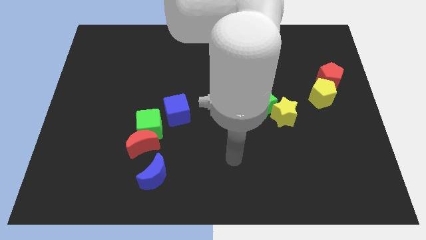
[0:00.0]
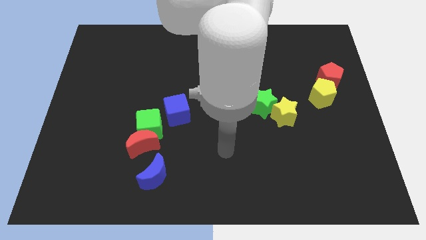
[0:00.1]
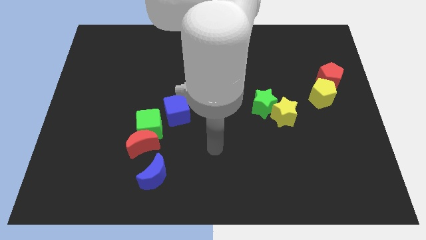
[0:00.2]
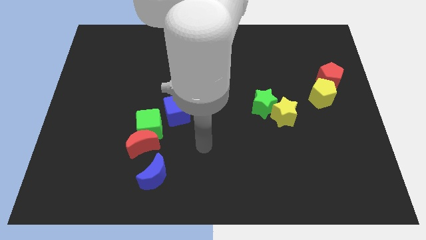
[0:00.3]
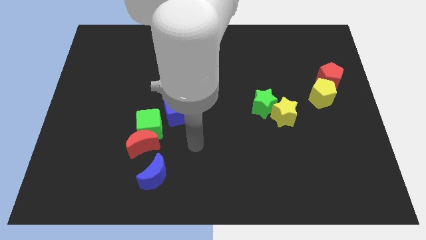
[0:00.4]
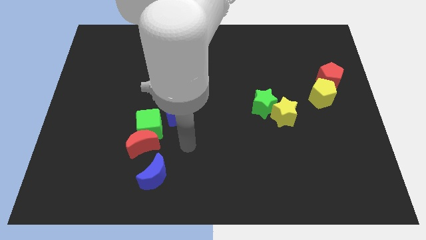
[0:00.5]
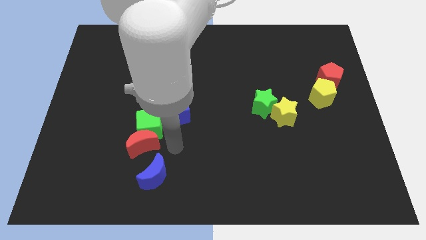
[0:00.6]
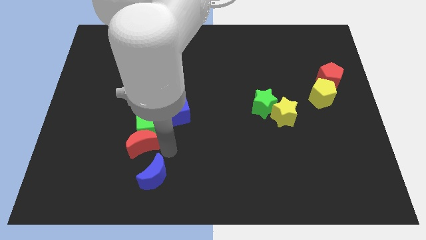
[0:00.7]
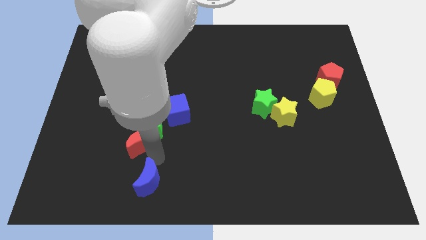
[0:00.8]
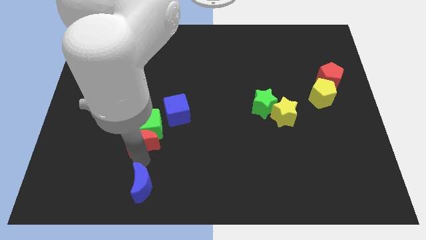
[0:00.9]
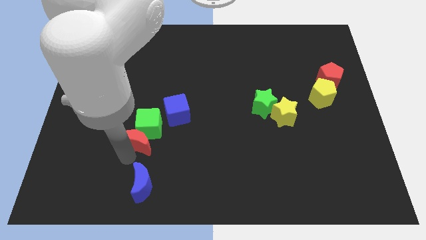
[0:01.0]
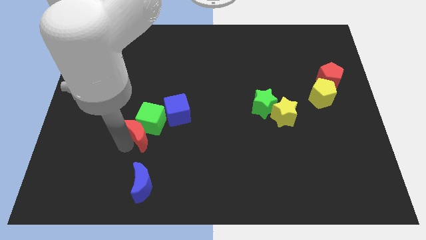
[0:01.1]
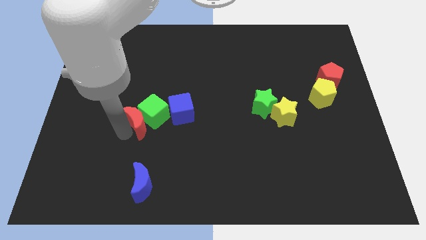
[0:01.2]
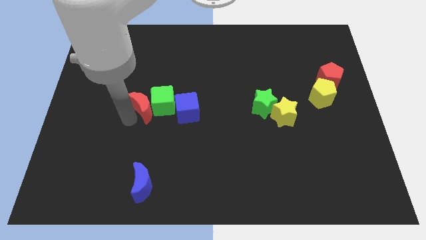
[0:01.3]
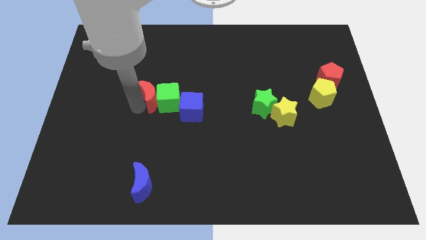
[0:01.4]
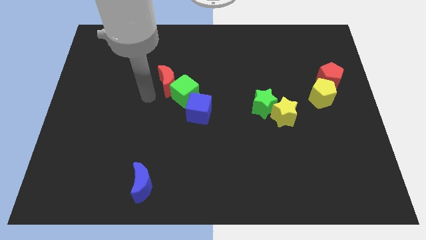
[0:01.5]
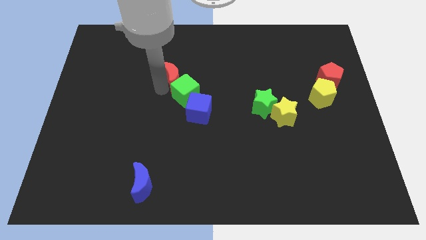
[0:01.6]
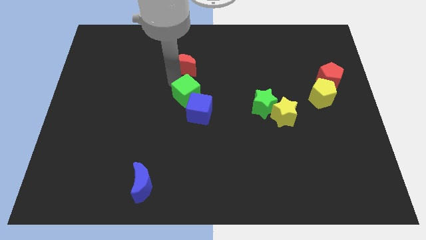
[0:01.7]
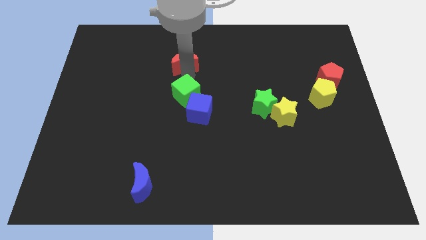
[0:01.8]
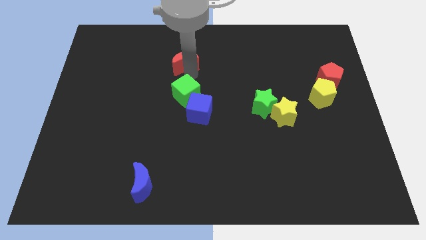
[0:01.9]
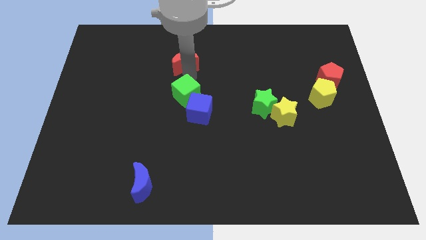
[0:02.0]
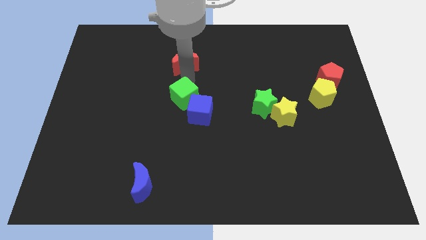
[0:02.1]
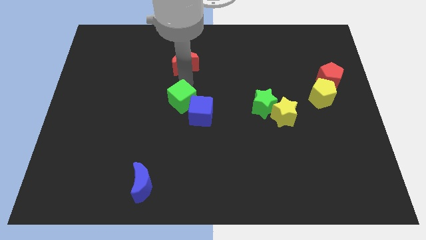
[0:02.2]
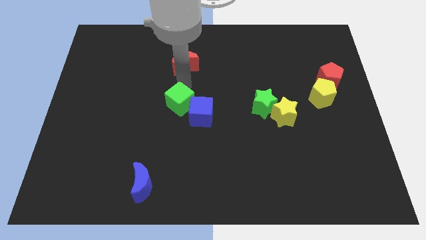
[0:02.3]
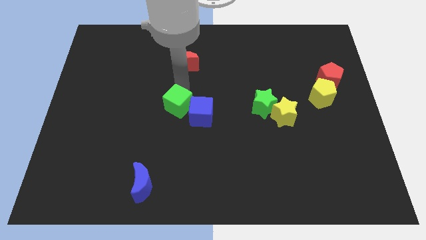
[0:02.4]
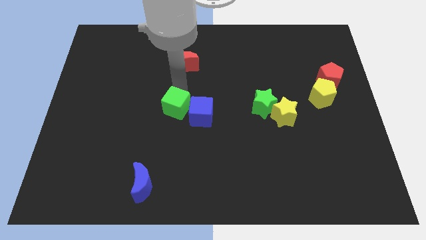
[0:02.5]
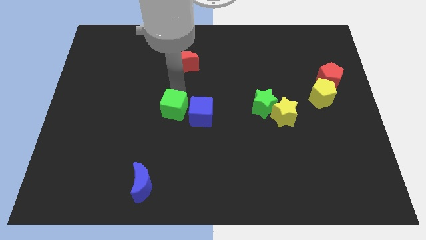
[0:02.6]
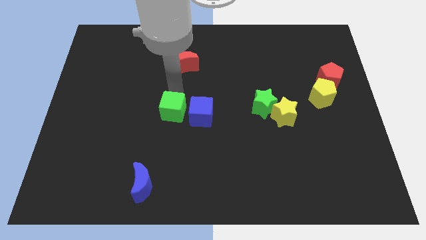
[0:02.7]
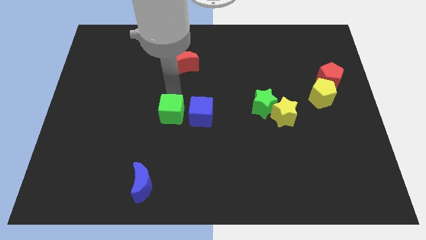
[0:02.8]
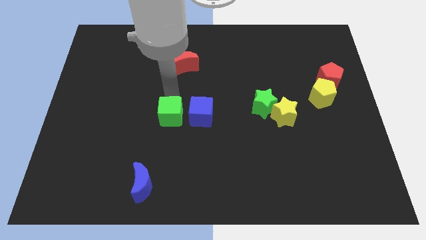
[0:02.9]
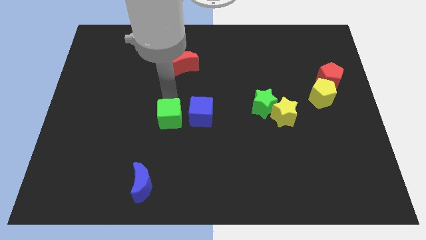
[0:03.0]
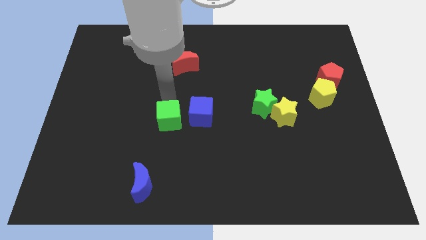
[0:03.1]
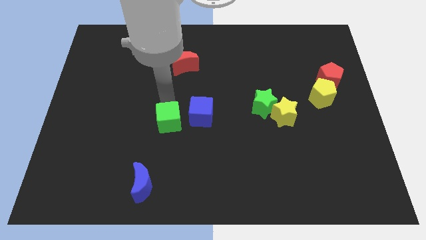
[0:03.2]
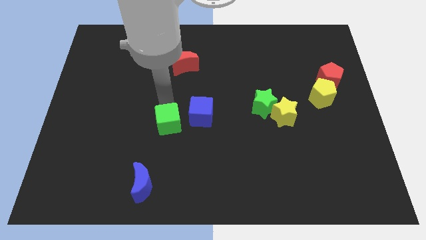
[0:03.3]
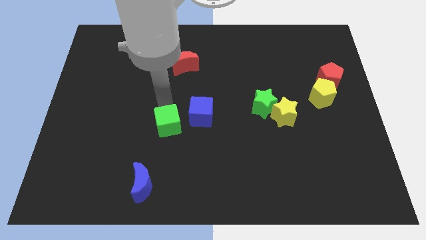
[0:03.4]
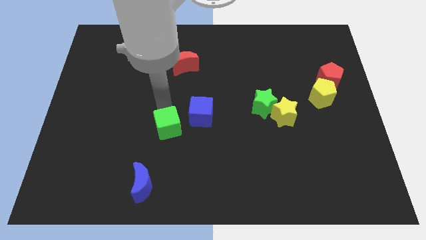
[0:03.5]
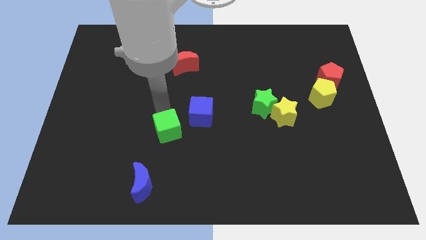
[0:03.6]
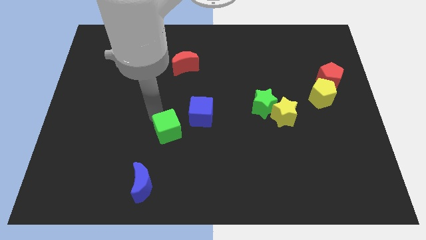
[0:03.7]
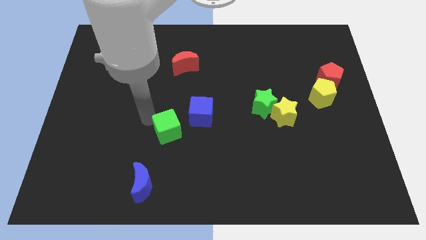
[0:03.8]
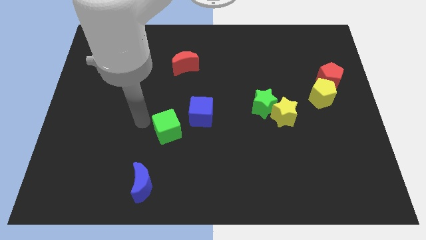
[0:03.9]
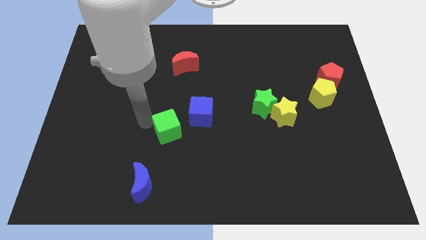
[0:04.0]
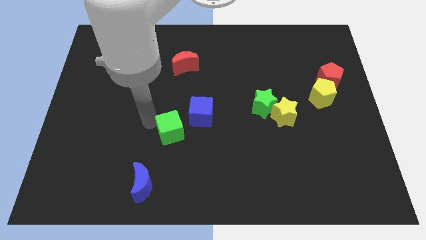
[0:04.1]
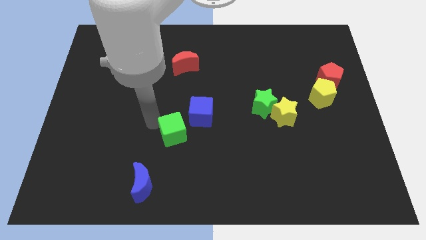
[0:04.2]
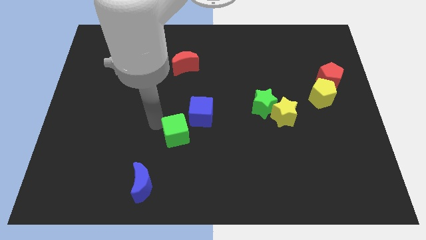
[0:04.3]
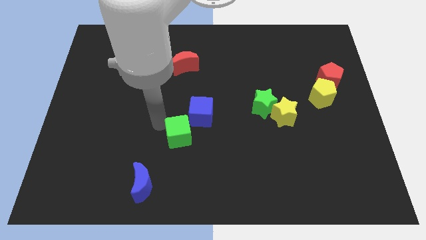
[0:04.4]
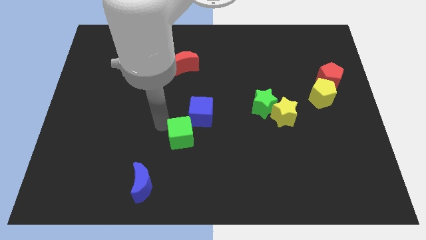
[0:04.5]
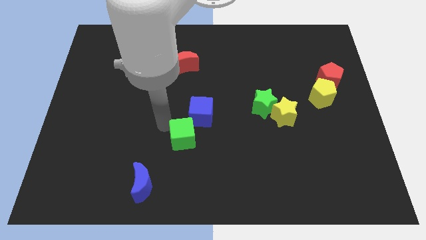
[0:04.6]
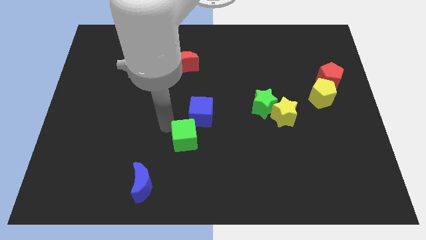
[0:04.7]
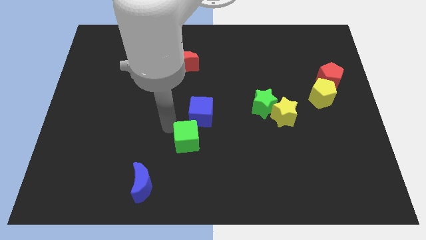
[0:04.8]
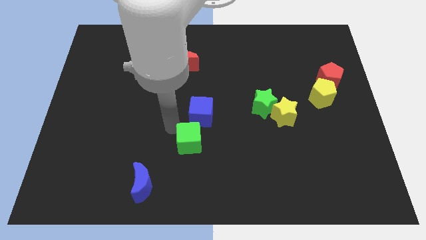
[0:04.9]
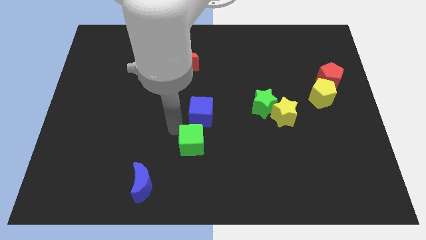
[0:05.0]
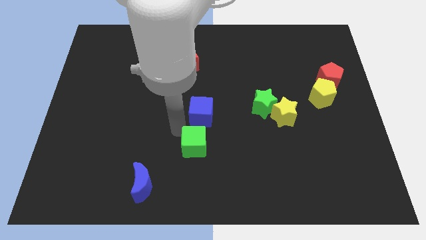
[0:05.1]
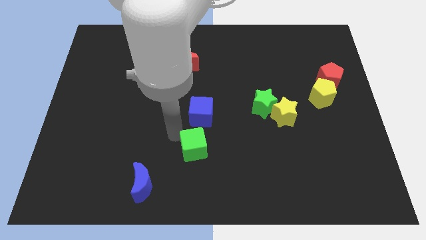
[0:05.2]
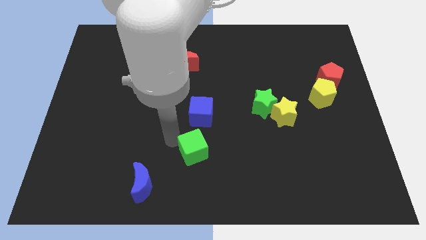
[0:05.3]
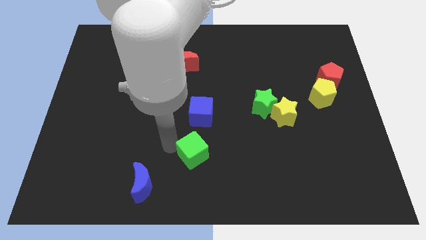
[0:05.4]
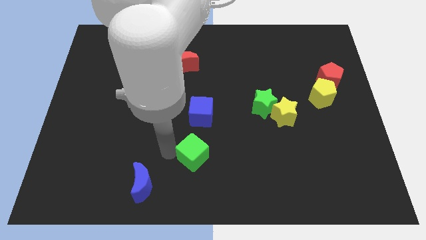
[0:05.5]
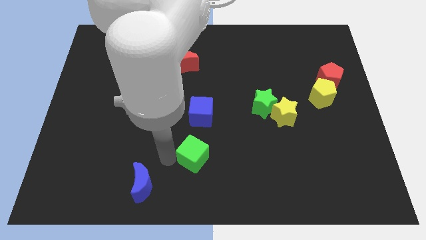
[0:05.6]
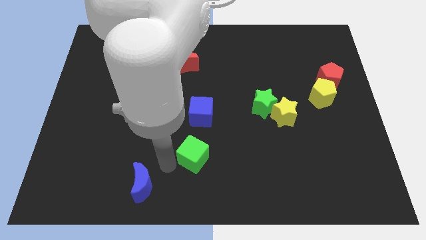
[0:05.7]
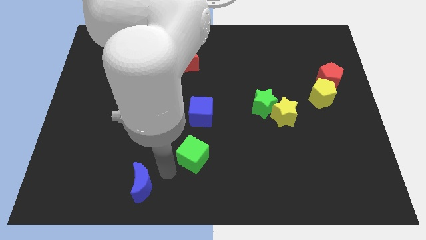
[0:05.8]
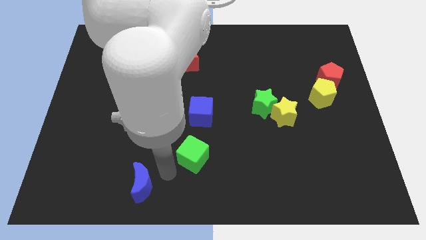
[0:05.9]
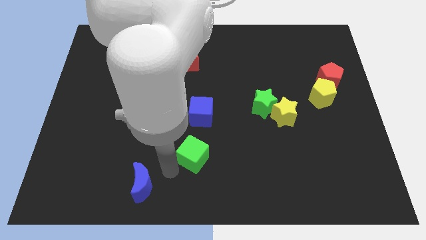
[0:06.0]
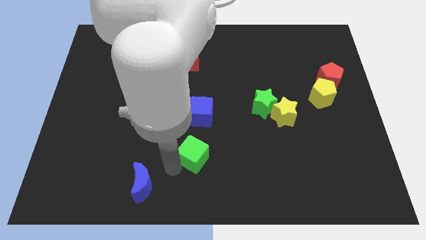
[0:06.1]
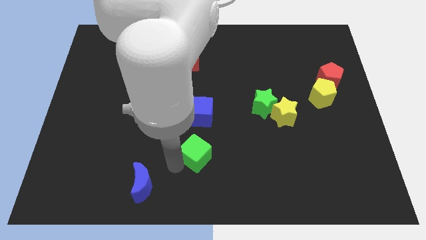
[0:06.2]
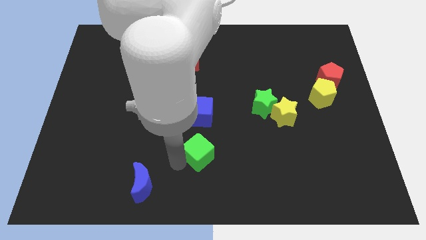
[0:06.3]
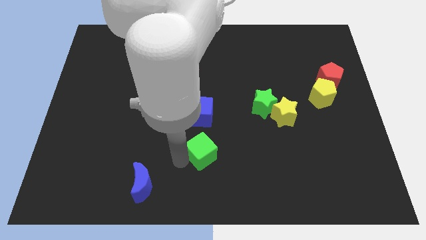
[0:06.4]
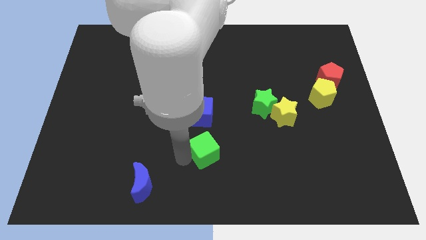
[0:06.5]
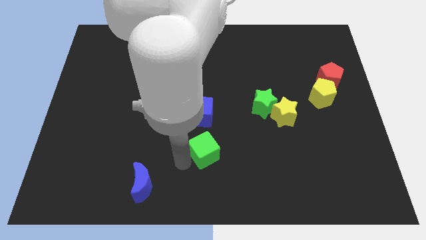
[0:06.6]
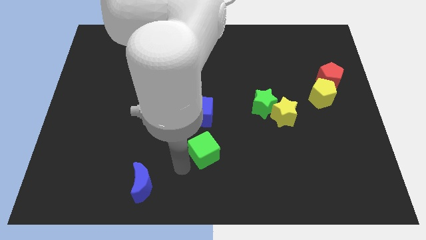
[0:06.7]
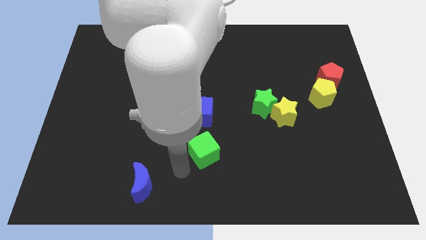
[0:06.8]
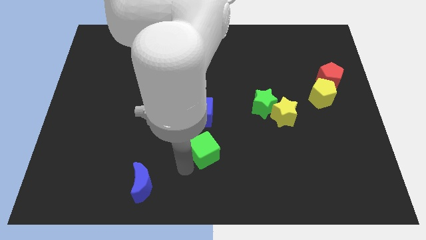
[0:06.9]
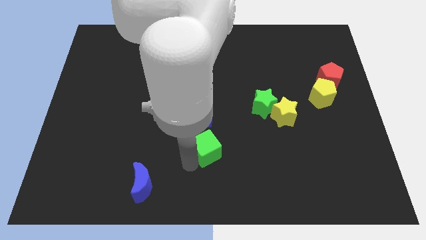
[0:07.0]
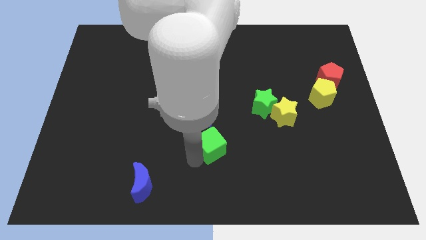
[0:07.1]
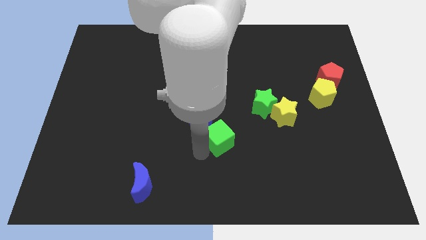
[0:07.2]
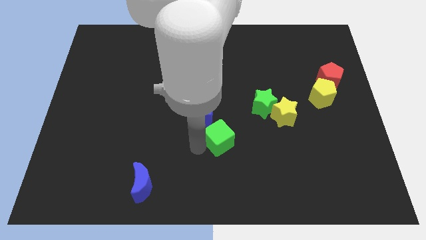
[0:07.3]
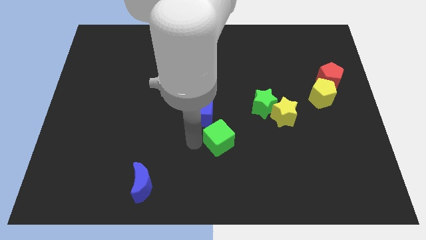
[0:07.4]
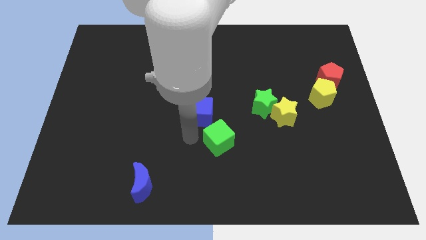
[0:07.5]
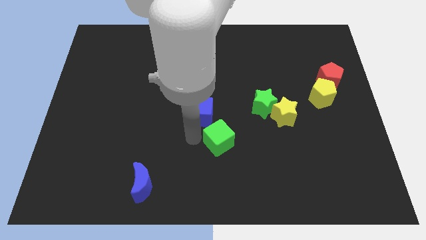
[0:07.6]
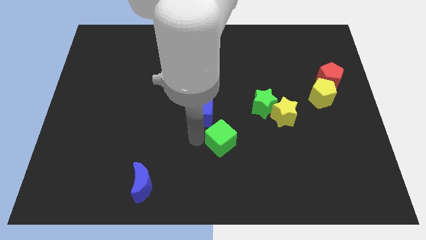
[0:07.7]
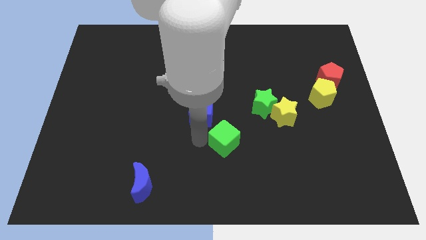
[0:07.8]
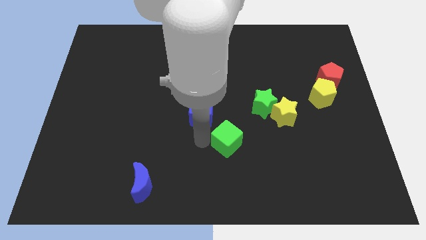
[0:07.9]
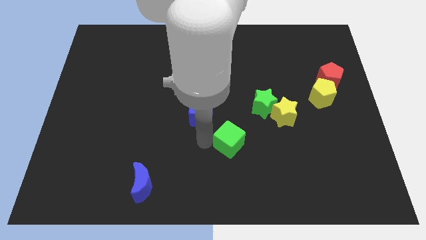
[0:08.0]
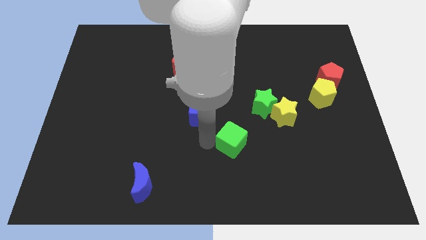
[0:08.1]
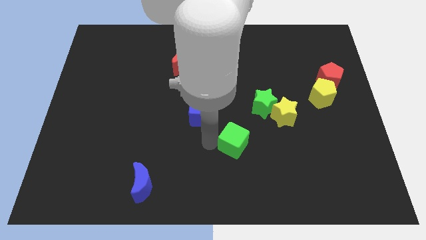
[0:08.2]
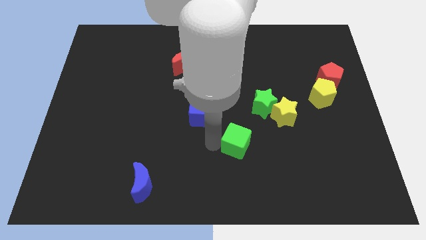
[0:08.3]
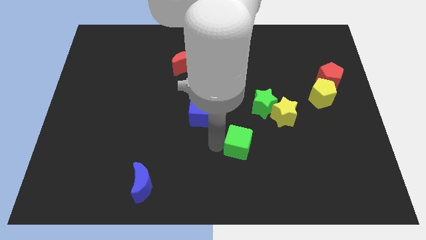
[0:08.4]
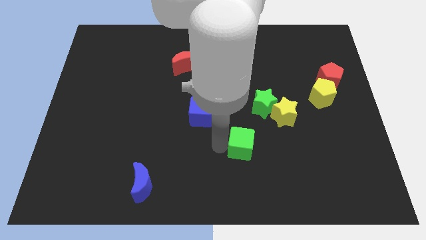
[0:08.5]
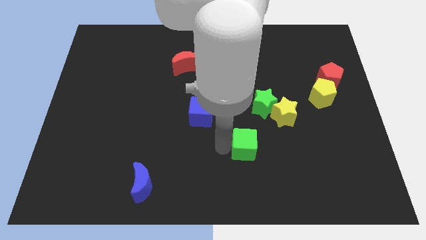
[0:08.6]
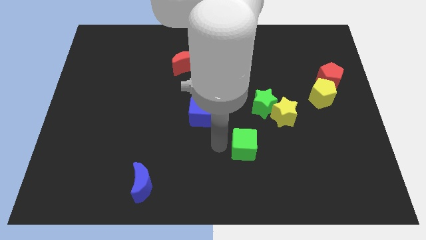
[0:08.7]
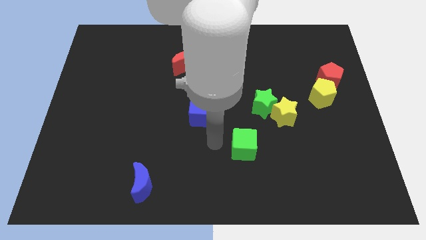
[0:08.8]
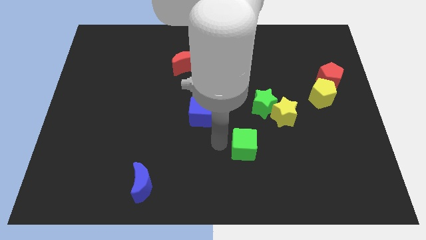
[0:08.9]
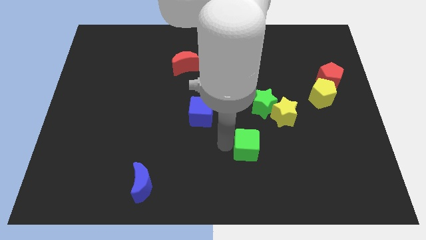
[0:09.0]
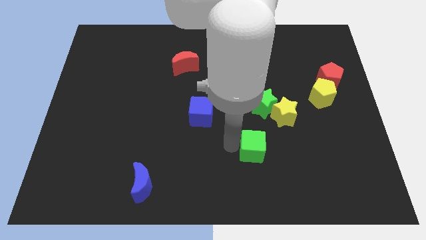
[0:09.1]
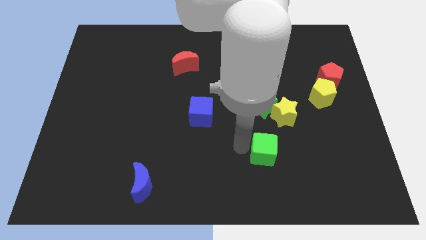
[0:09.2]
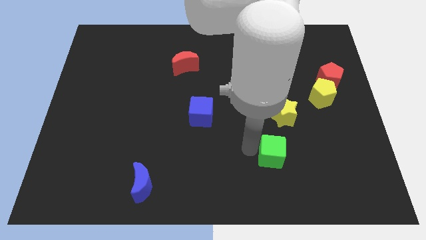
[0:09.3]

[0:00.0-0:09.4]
push the green cube to the bottom side of the yellow star
